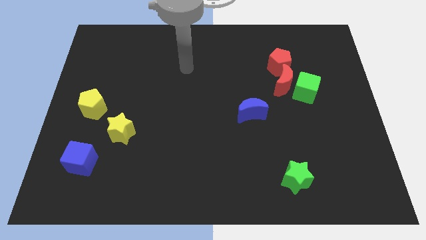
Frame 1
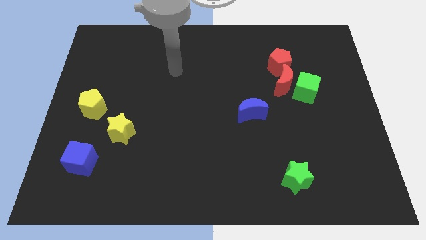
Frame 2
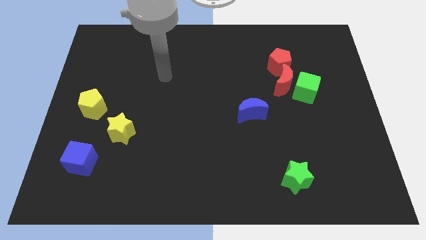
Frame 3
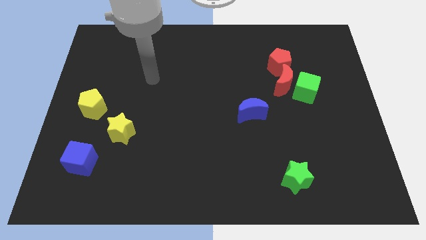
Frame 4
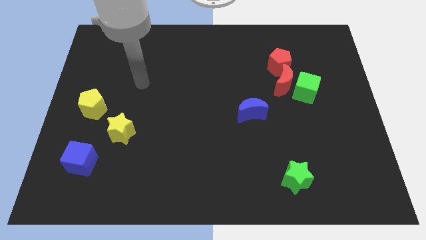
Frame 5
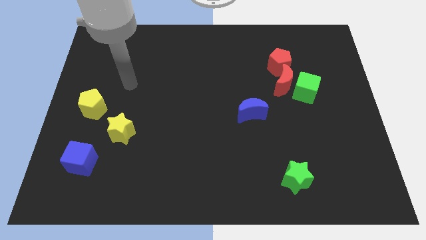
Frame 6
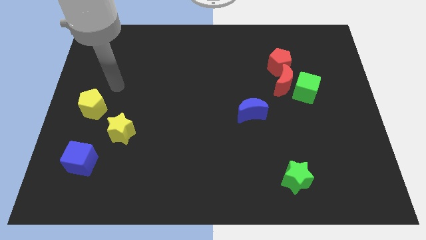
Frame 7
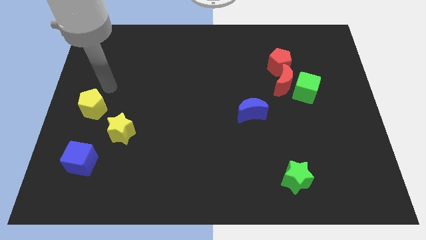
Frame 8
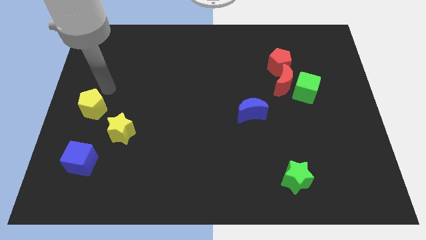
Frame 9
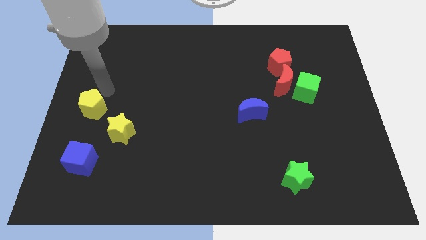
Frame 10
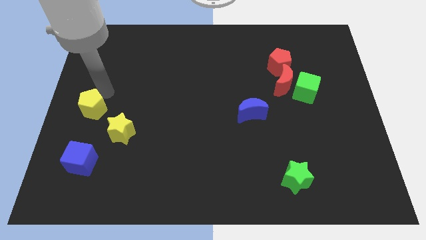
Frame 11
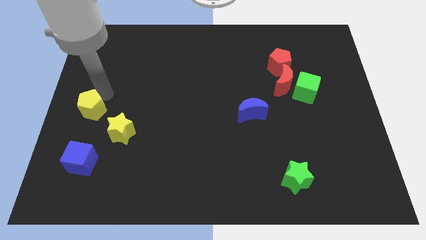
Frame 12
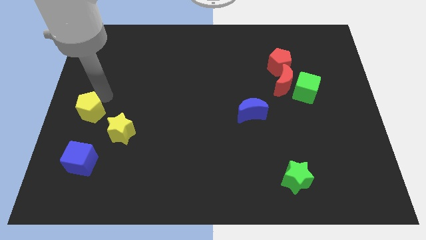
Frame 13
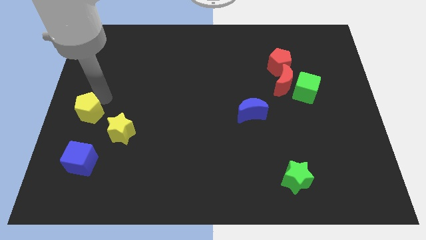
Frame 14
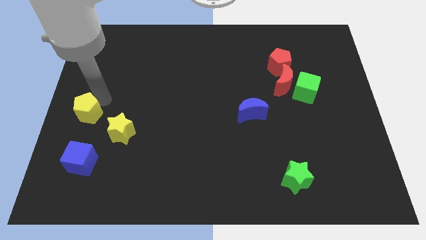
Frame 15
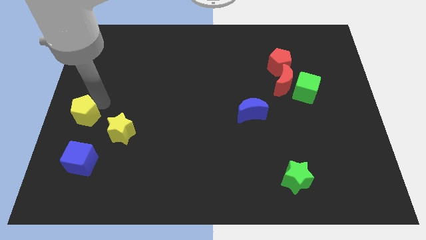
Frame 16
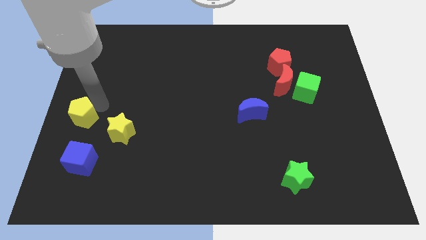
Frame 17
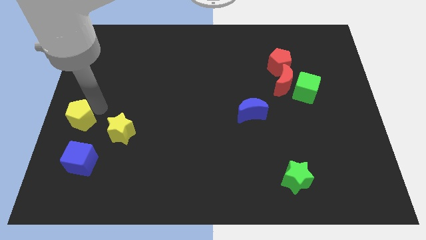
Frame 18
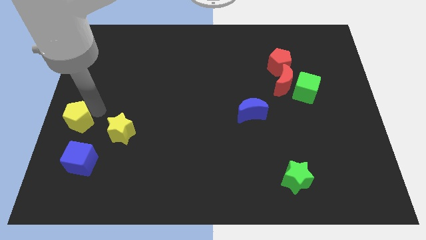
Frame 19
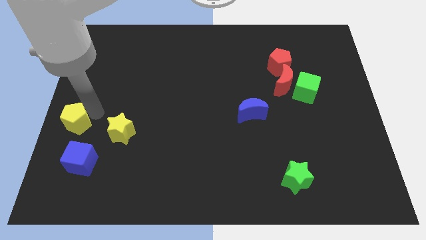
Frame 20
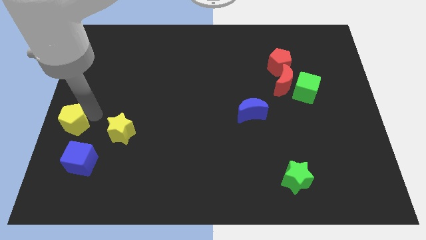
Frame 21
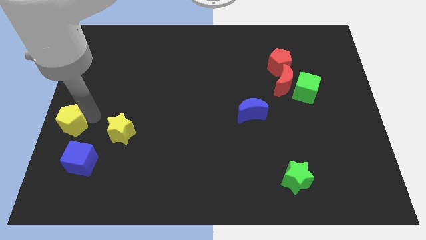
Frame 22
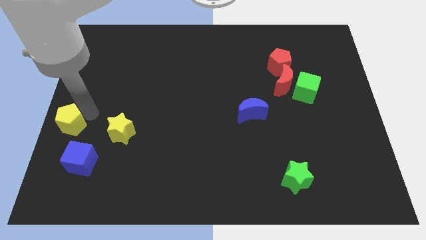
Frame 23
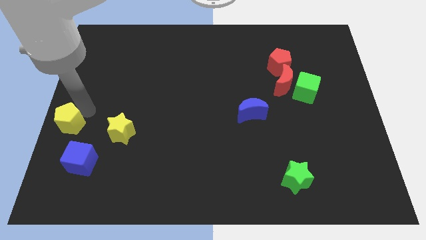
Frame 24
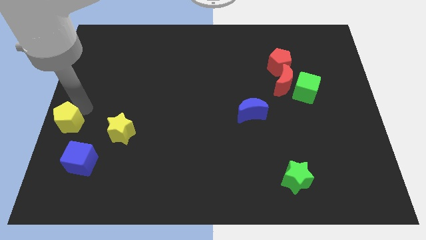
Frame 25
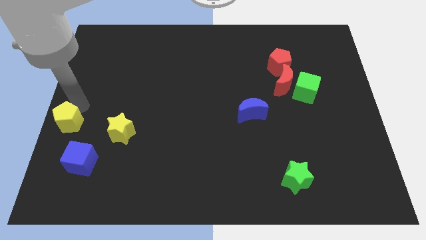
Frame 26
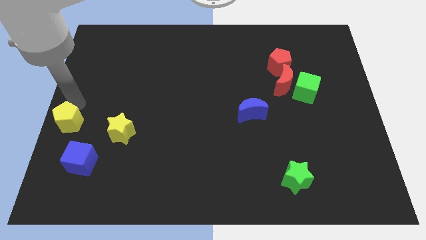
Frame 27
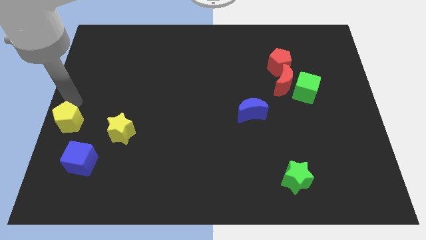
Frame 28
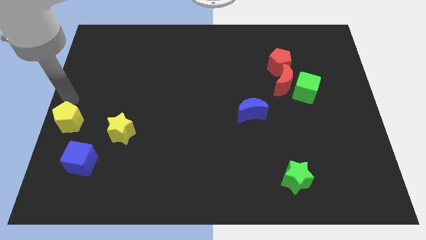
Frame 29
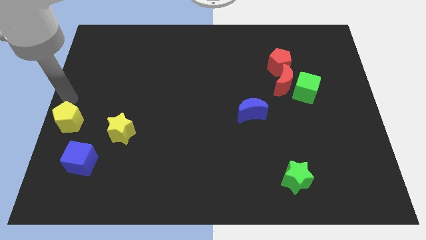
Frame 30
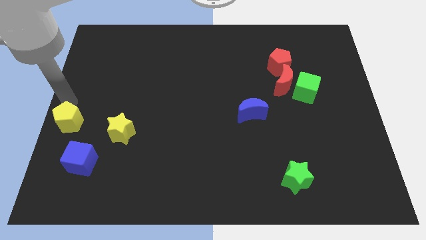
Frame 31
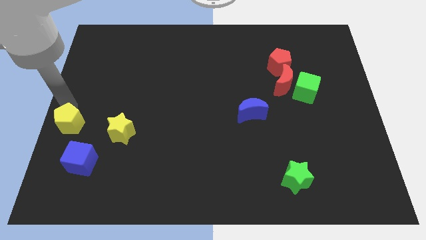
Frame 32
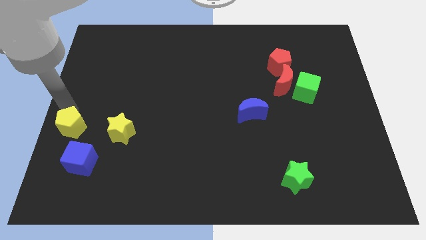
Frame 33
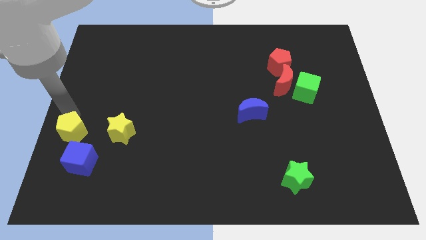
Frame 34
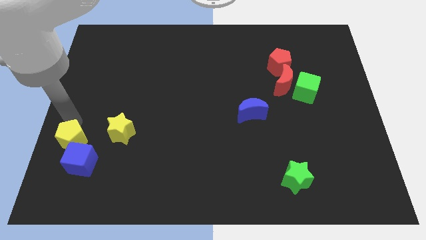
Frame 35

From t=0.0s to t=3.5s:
push the yellow pentagon somewhat downwards

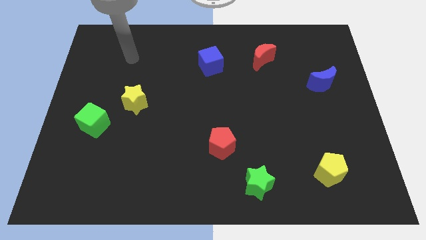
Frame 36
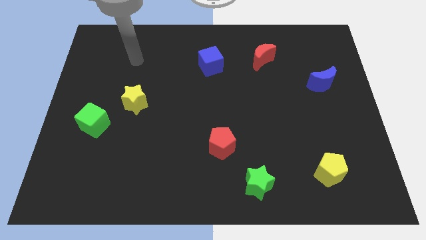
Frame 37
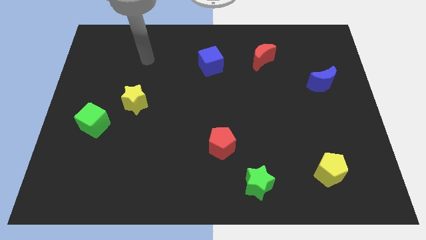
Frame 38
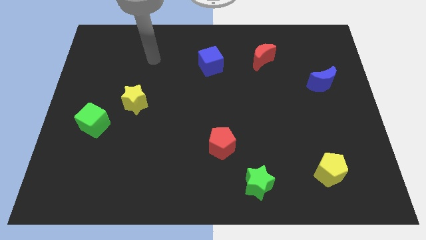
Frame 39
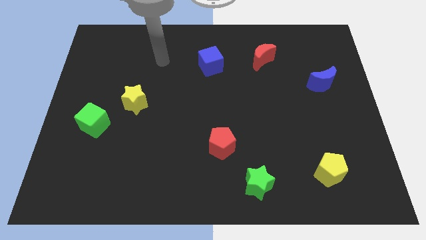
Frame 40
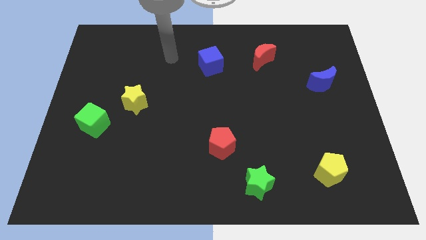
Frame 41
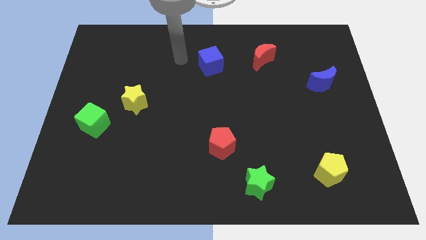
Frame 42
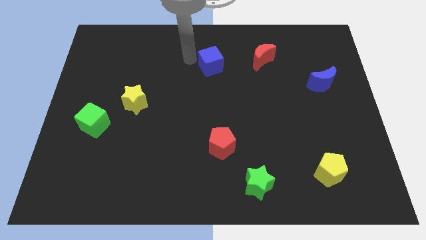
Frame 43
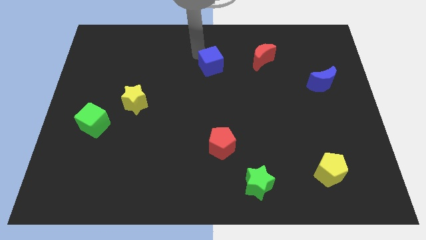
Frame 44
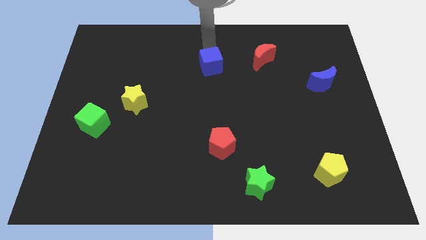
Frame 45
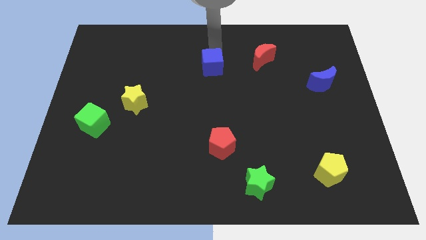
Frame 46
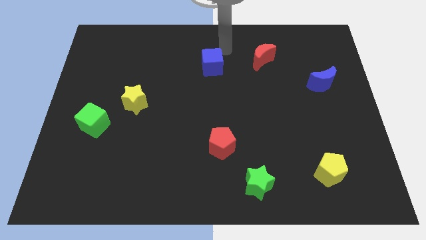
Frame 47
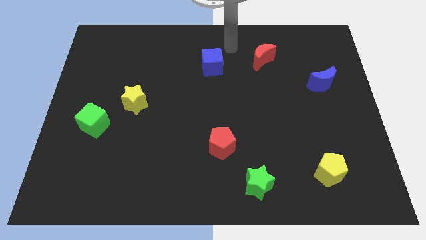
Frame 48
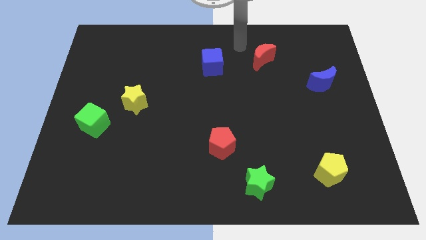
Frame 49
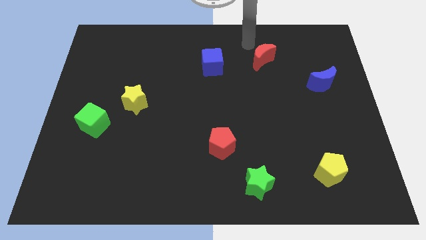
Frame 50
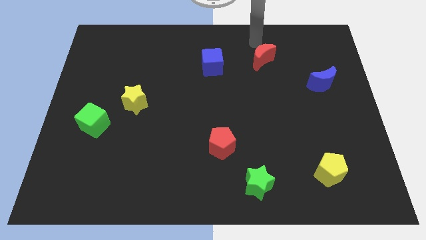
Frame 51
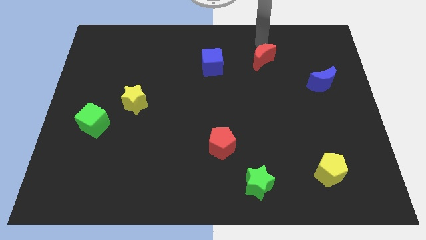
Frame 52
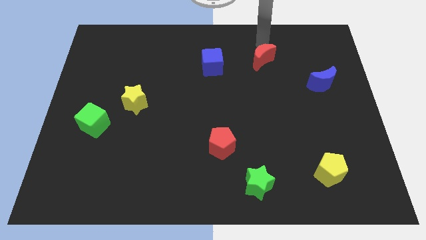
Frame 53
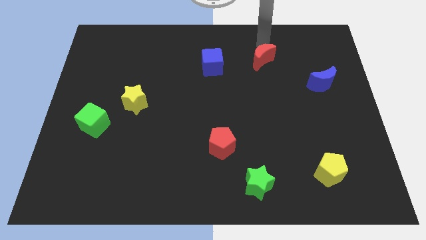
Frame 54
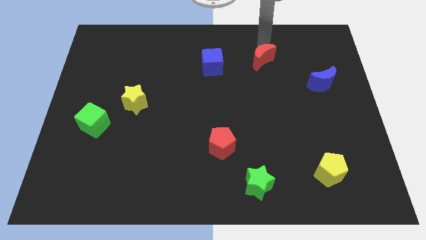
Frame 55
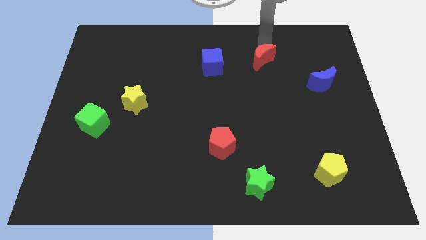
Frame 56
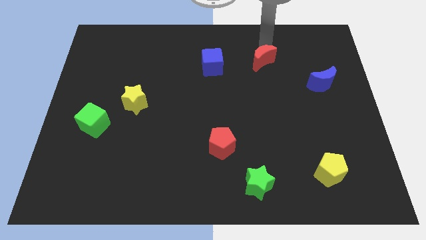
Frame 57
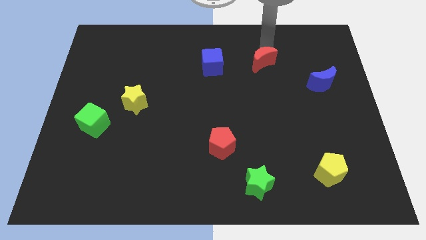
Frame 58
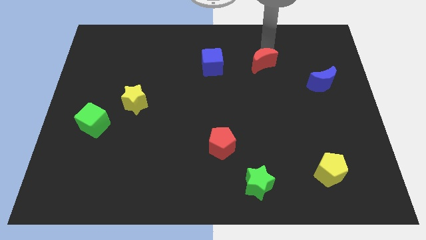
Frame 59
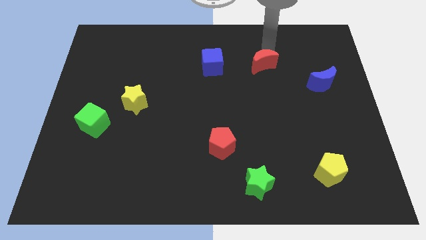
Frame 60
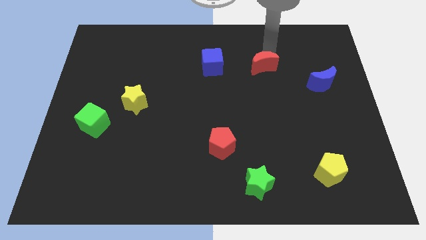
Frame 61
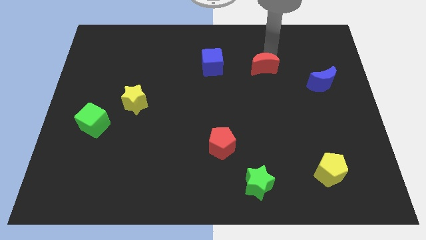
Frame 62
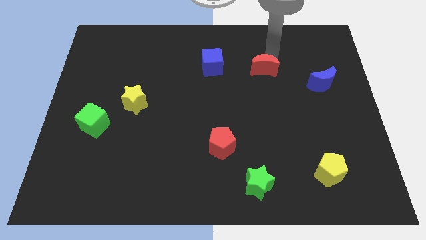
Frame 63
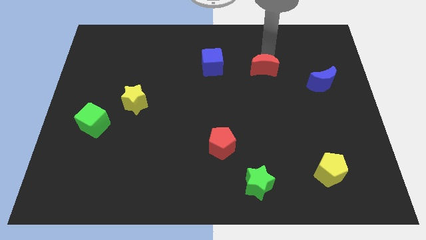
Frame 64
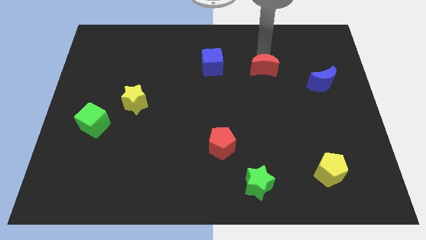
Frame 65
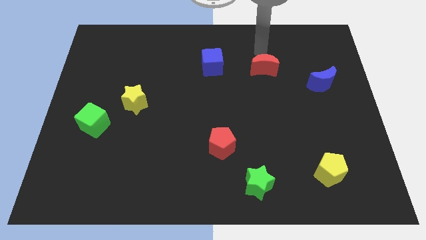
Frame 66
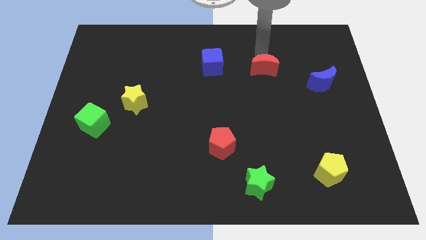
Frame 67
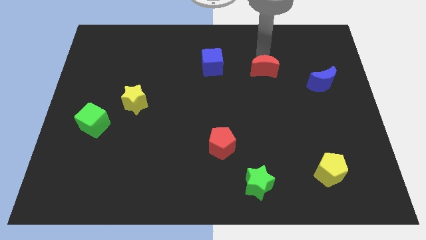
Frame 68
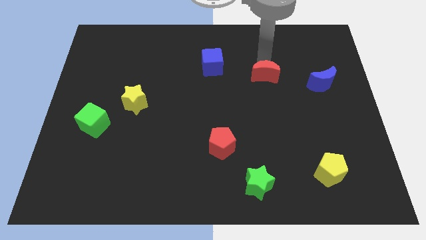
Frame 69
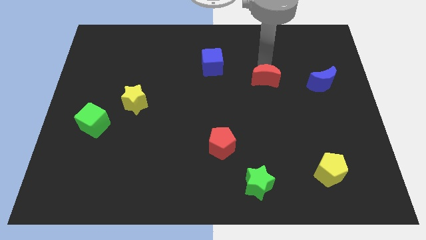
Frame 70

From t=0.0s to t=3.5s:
push the red moon down somewhat

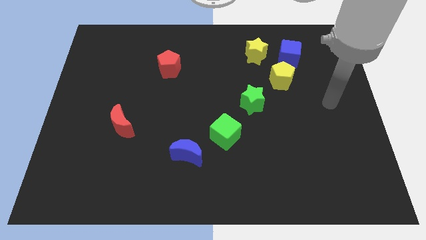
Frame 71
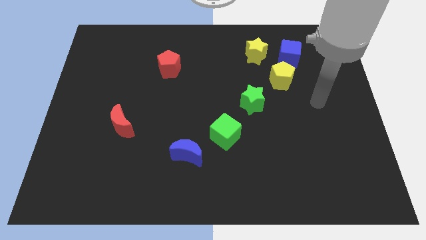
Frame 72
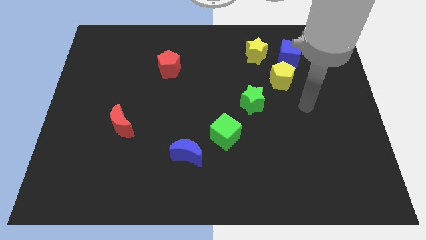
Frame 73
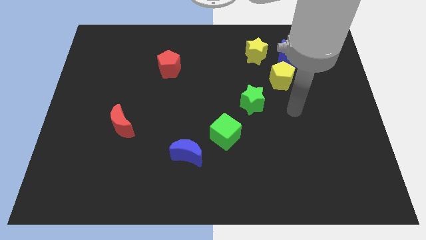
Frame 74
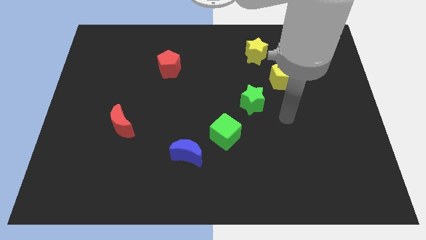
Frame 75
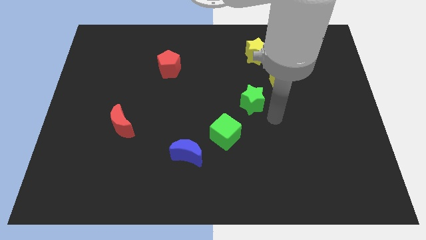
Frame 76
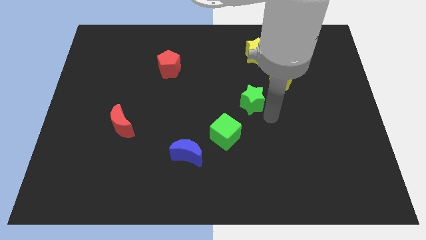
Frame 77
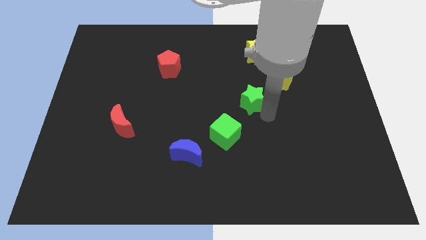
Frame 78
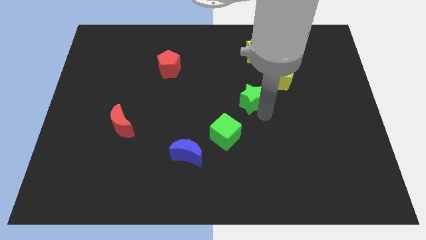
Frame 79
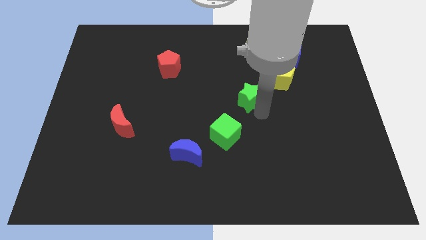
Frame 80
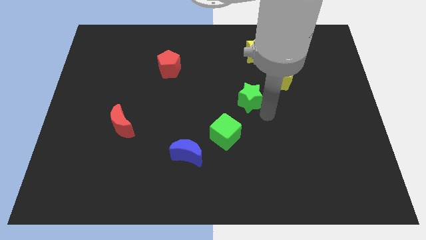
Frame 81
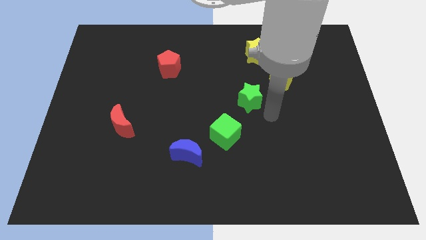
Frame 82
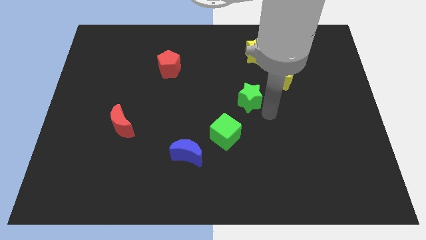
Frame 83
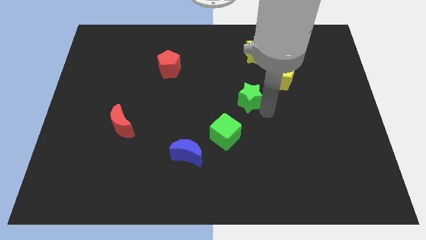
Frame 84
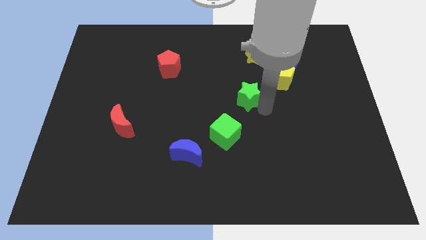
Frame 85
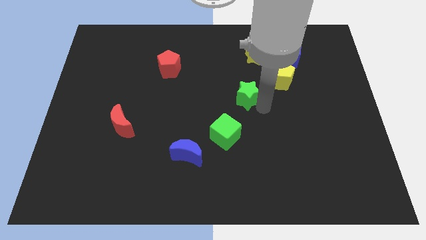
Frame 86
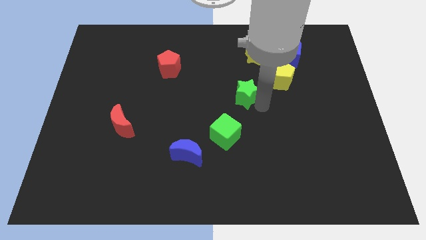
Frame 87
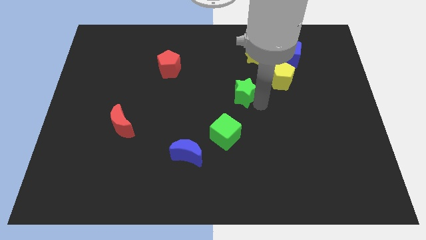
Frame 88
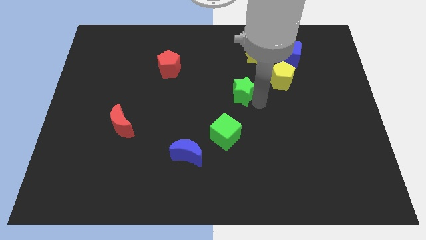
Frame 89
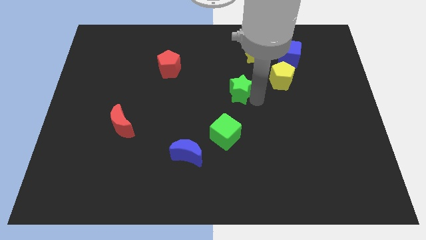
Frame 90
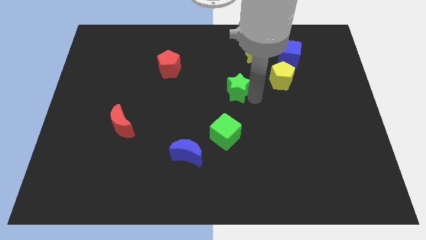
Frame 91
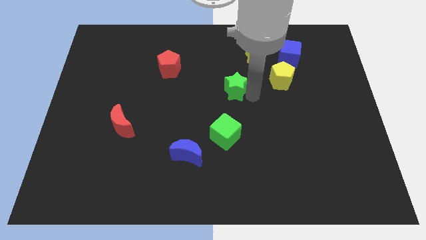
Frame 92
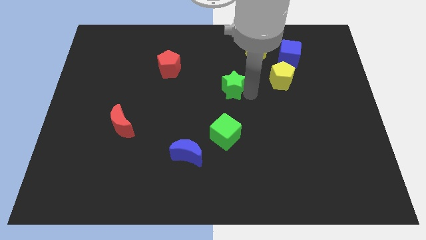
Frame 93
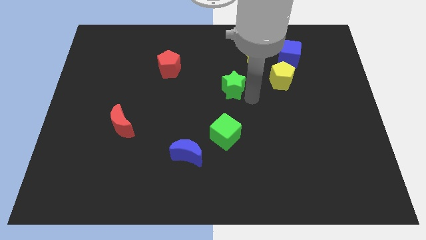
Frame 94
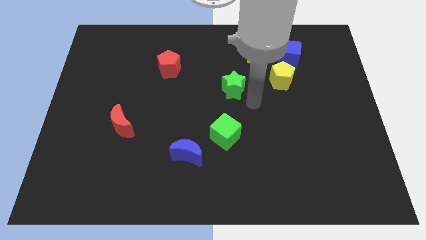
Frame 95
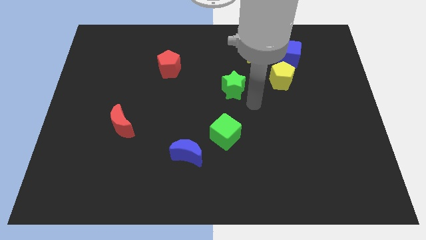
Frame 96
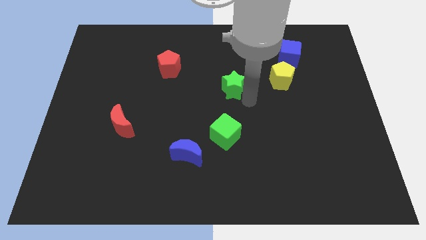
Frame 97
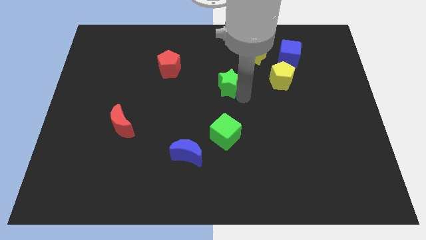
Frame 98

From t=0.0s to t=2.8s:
slightly push the green star upwards and to the left
